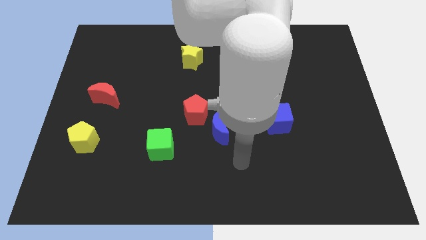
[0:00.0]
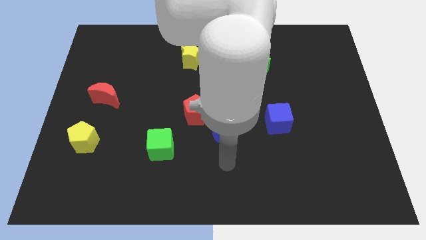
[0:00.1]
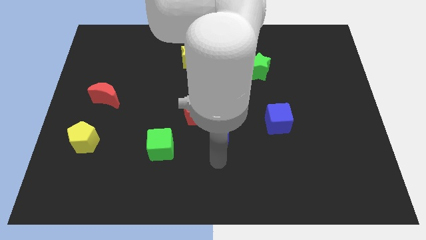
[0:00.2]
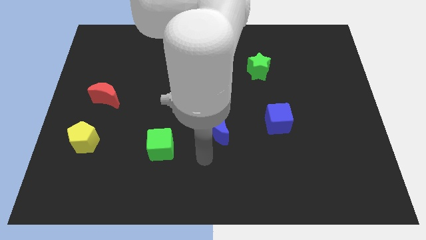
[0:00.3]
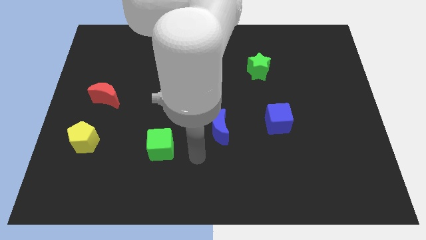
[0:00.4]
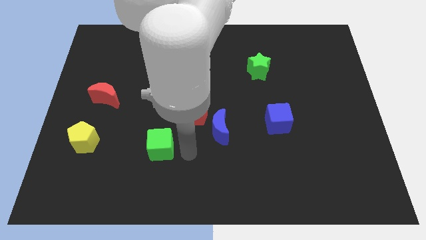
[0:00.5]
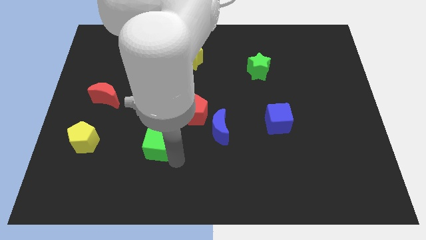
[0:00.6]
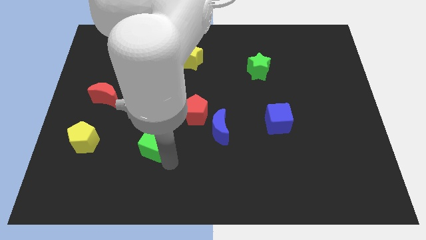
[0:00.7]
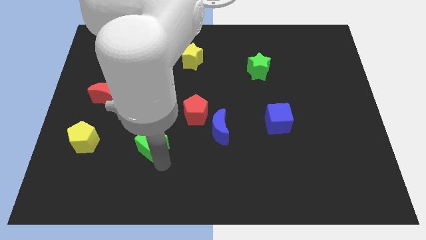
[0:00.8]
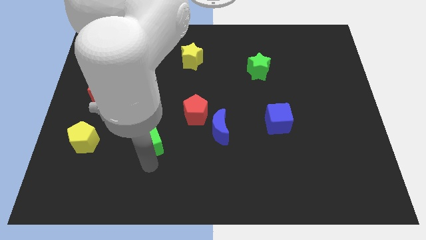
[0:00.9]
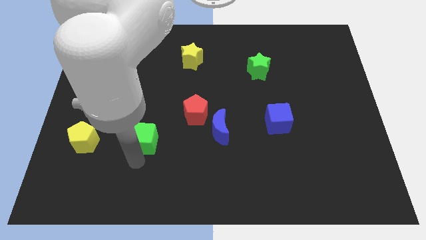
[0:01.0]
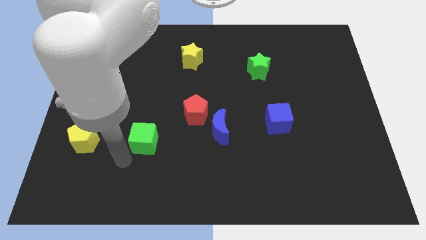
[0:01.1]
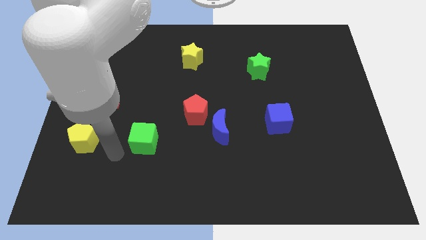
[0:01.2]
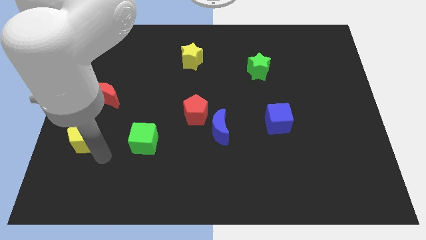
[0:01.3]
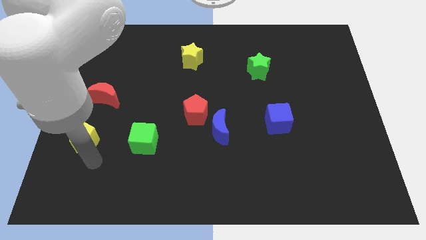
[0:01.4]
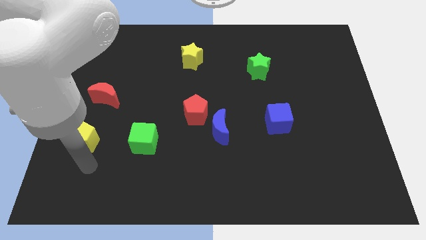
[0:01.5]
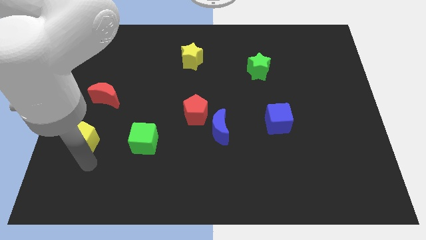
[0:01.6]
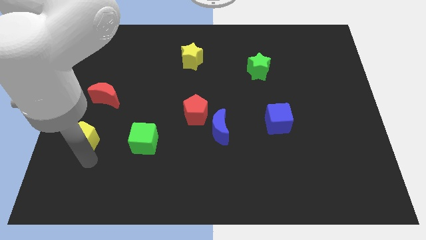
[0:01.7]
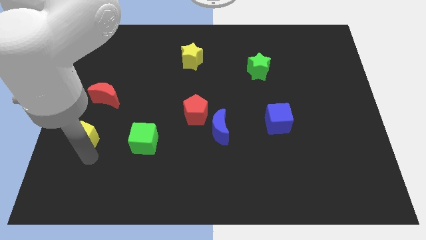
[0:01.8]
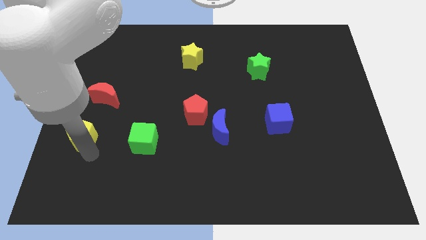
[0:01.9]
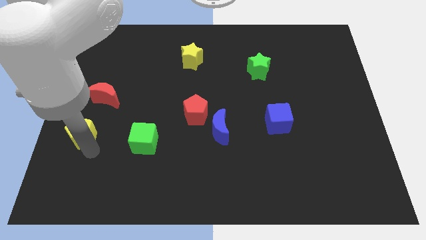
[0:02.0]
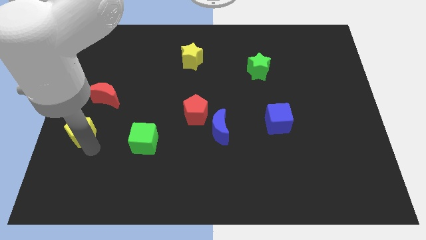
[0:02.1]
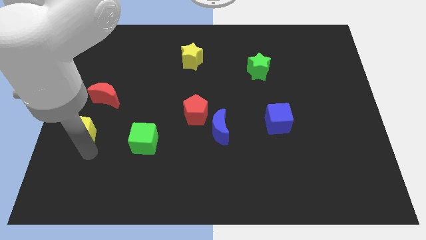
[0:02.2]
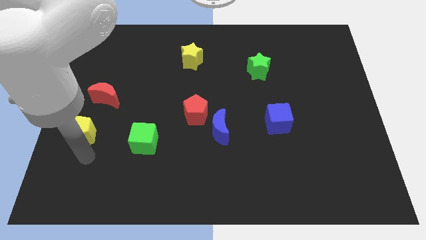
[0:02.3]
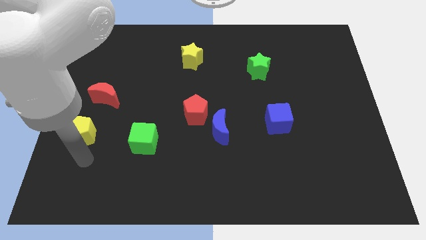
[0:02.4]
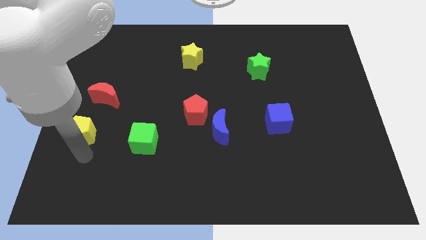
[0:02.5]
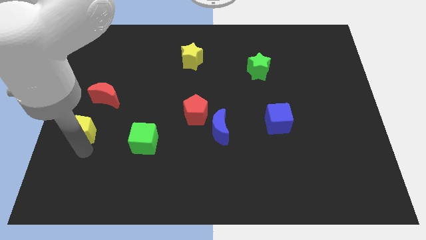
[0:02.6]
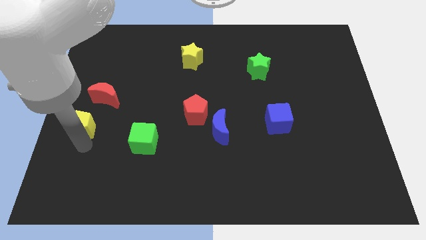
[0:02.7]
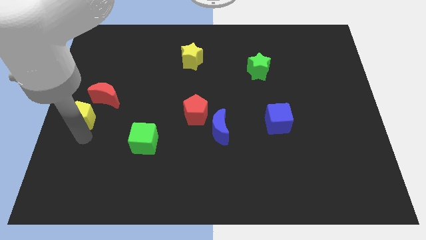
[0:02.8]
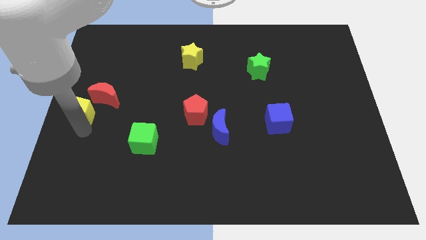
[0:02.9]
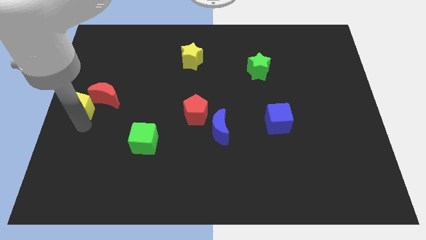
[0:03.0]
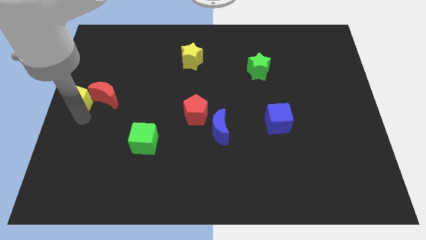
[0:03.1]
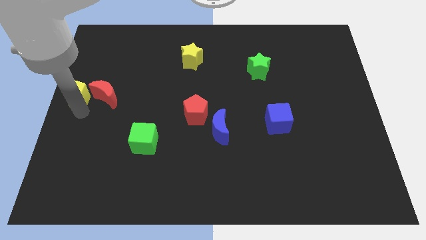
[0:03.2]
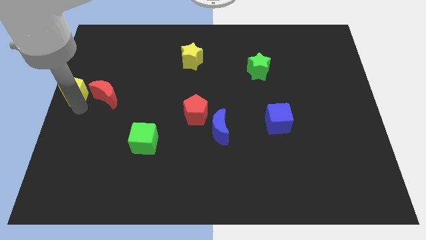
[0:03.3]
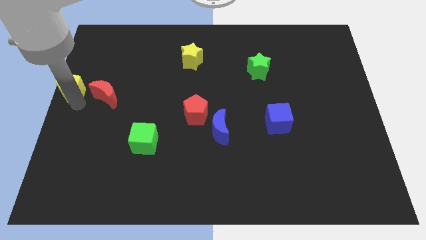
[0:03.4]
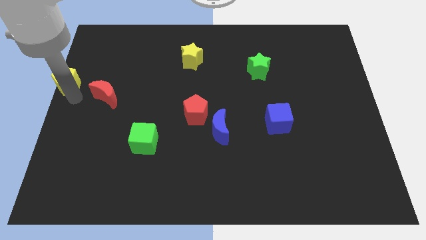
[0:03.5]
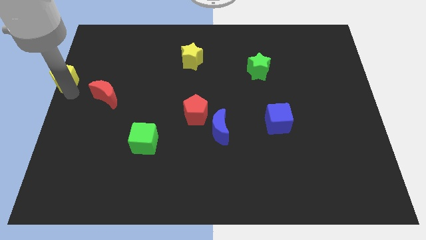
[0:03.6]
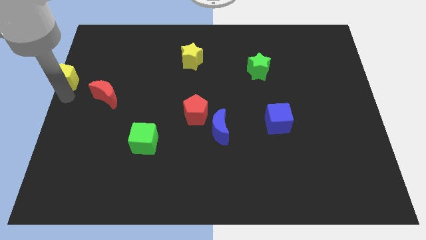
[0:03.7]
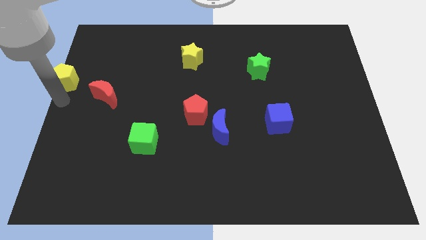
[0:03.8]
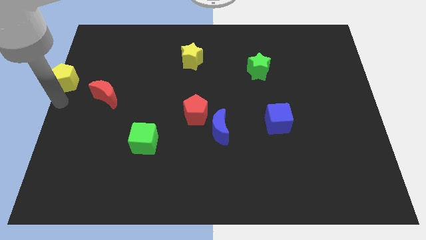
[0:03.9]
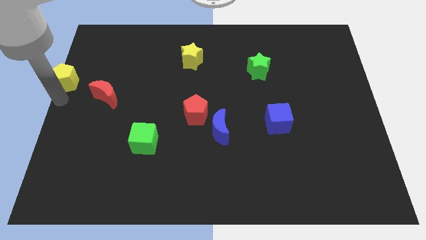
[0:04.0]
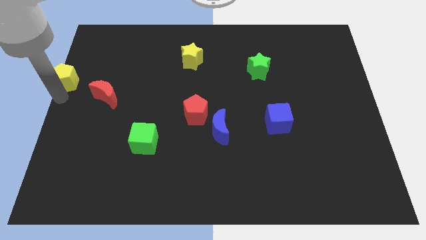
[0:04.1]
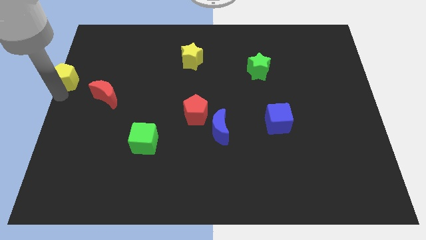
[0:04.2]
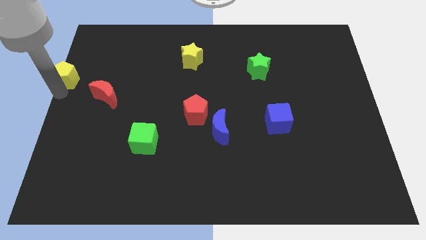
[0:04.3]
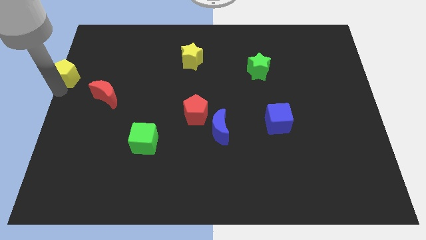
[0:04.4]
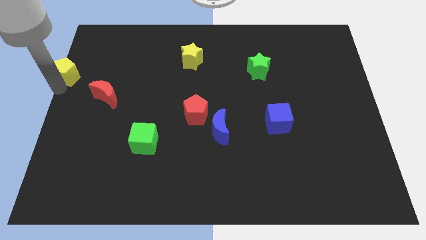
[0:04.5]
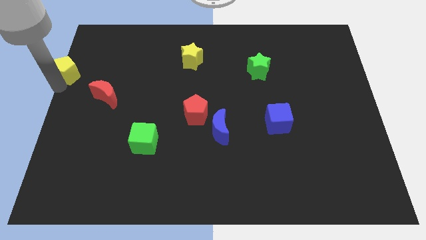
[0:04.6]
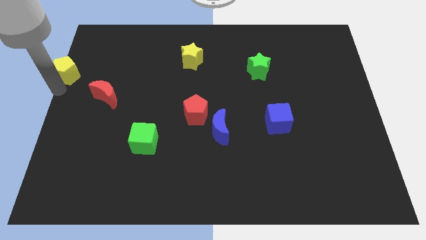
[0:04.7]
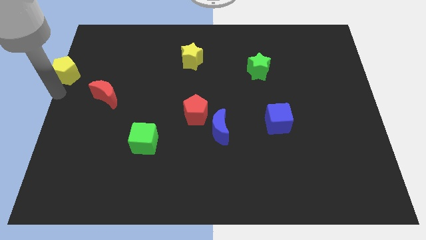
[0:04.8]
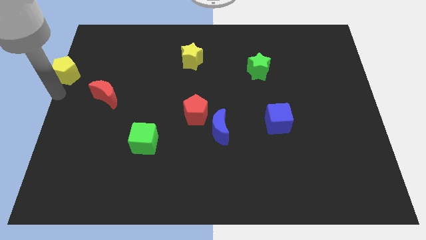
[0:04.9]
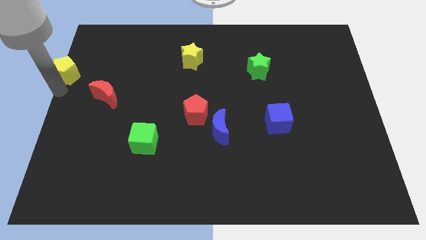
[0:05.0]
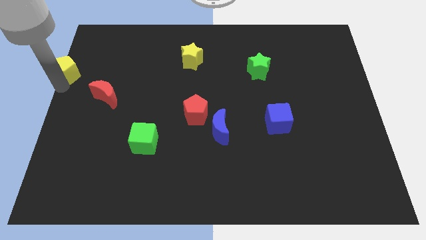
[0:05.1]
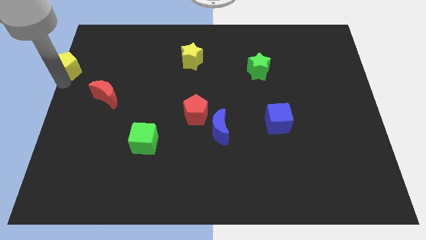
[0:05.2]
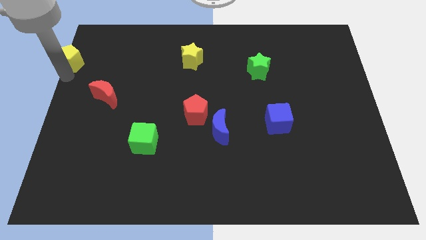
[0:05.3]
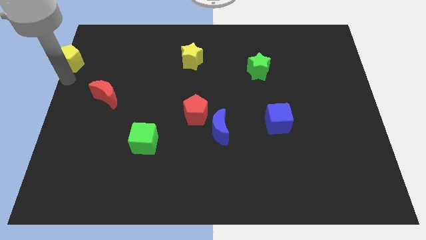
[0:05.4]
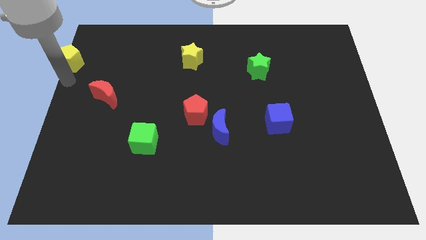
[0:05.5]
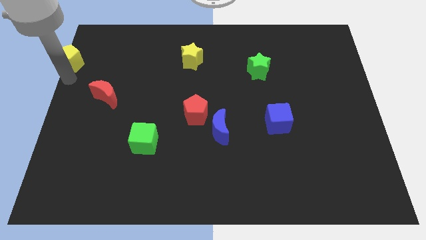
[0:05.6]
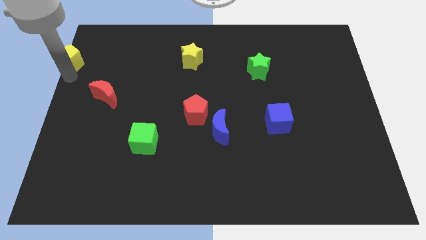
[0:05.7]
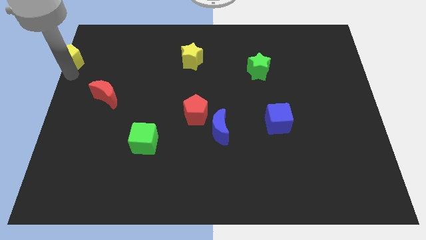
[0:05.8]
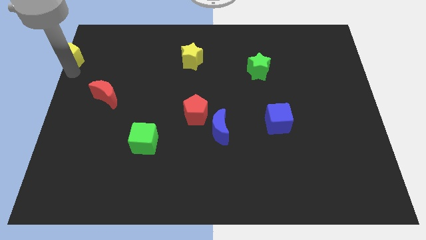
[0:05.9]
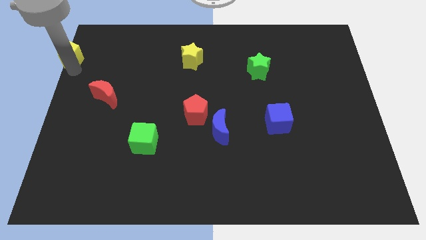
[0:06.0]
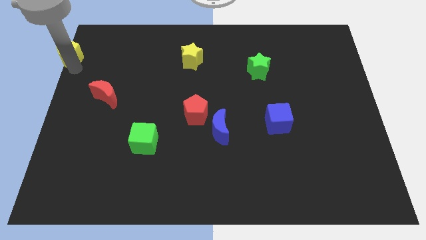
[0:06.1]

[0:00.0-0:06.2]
move the yellow pentagon to the top left corner

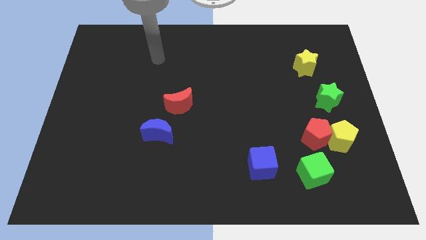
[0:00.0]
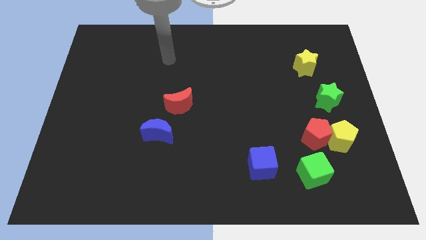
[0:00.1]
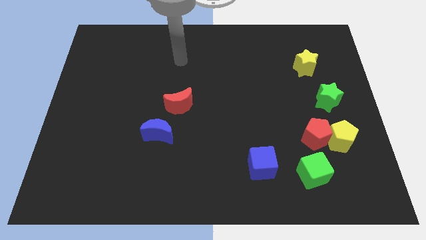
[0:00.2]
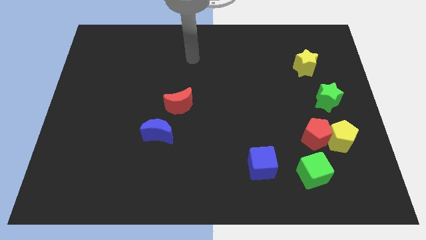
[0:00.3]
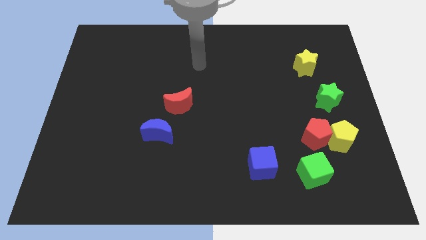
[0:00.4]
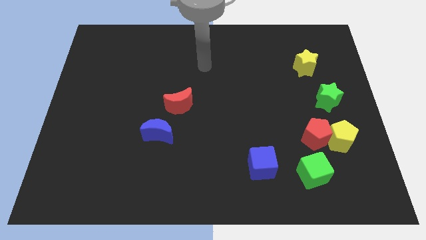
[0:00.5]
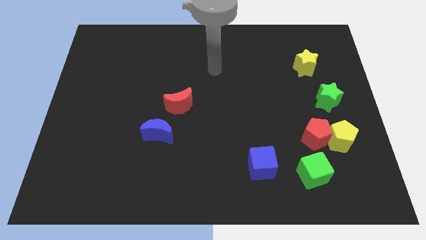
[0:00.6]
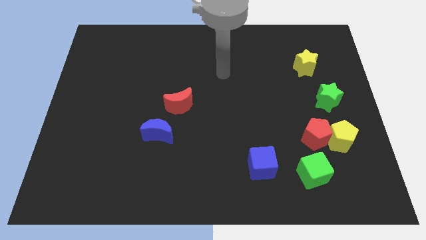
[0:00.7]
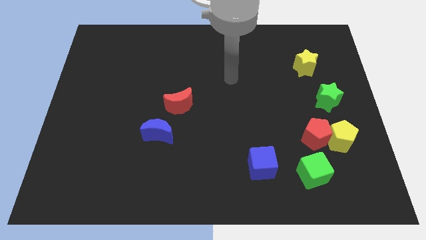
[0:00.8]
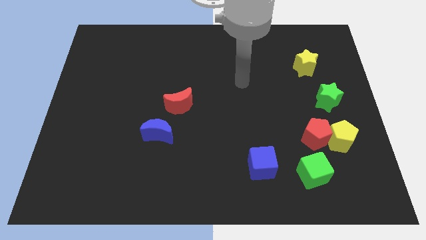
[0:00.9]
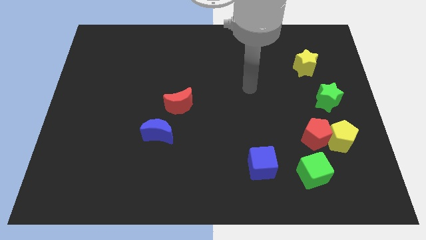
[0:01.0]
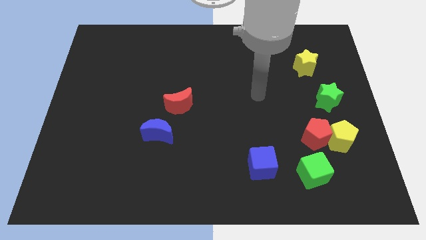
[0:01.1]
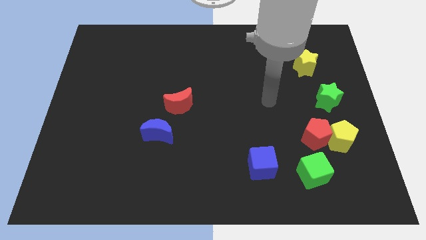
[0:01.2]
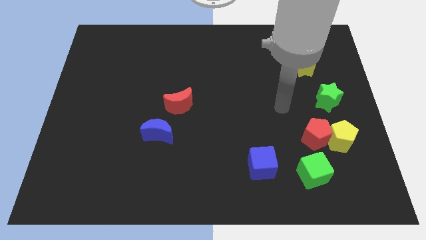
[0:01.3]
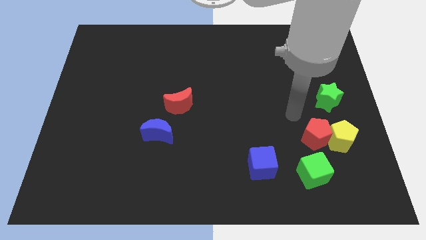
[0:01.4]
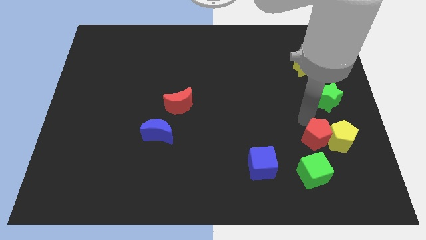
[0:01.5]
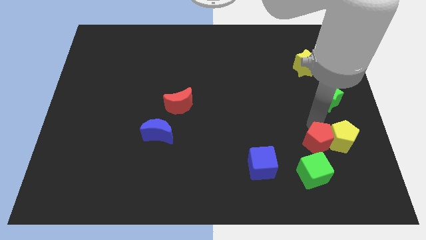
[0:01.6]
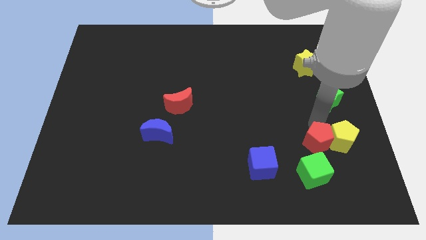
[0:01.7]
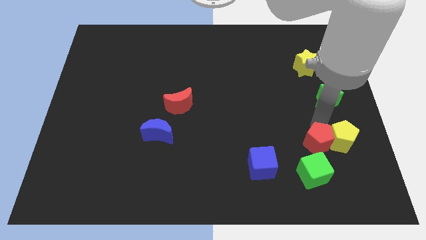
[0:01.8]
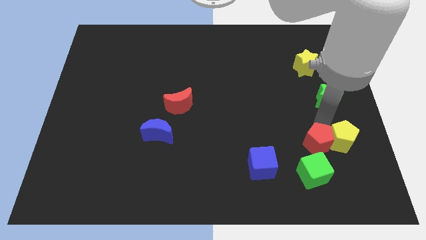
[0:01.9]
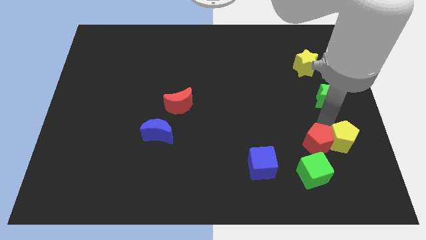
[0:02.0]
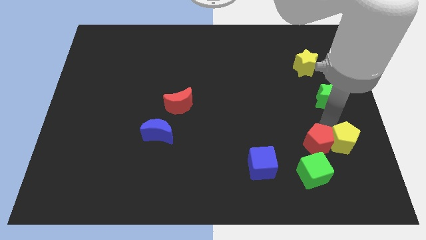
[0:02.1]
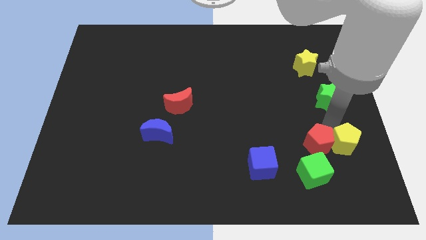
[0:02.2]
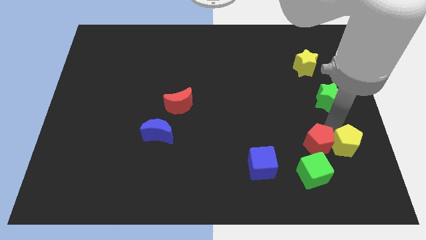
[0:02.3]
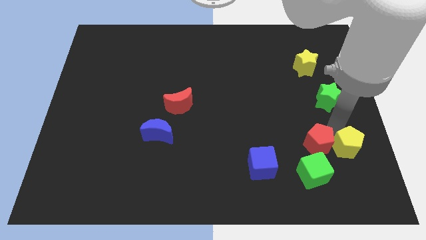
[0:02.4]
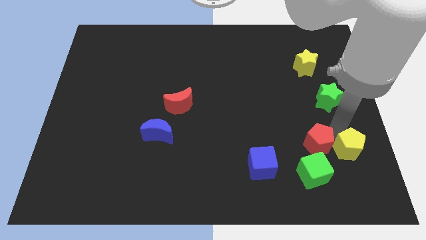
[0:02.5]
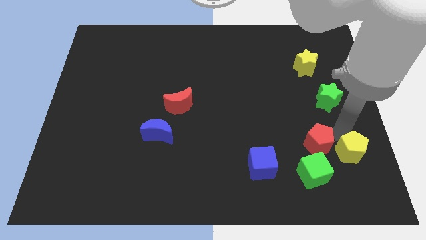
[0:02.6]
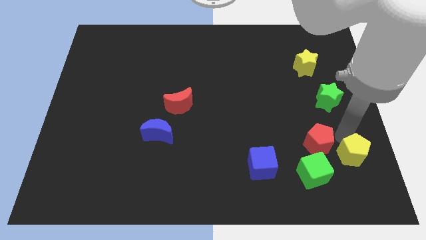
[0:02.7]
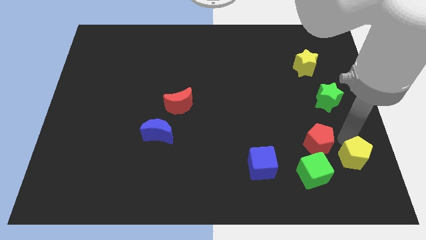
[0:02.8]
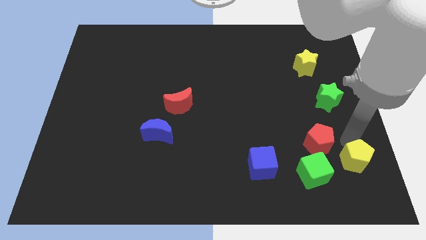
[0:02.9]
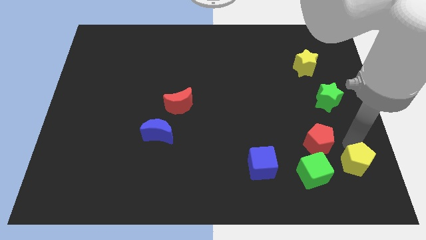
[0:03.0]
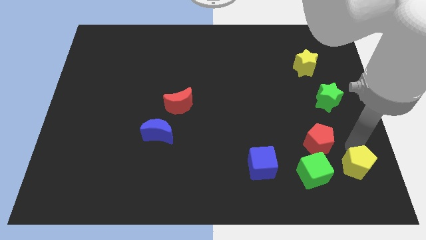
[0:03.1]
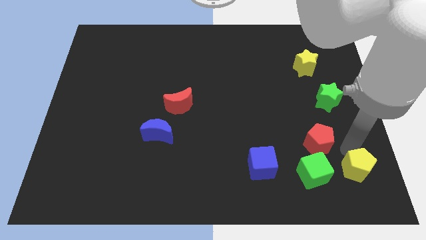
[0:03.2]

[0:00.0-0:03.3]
slide the yellow pentagon to the bottom right
